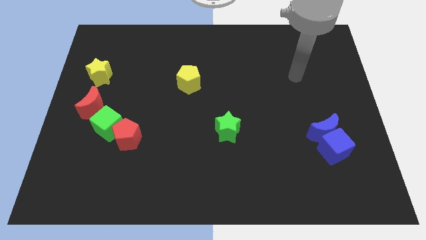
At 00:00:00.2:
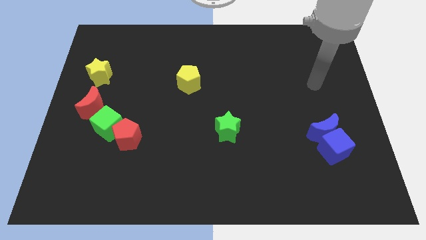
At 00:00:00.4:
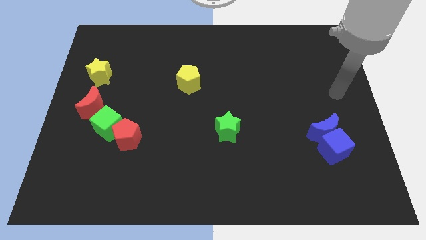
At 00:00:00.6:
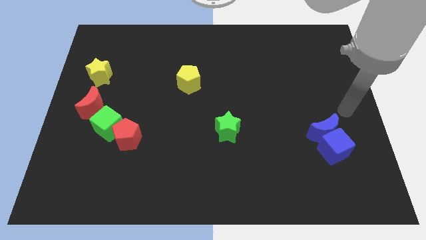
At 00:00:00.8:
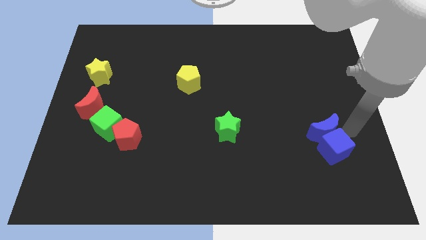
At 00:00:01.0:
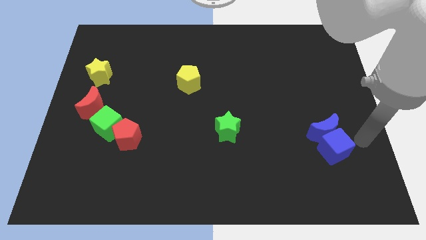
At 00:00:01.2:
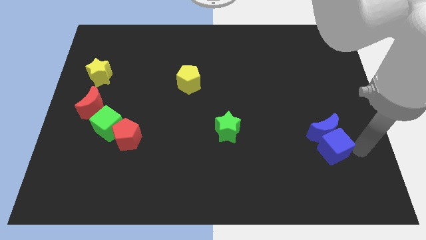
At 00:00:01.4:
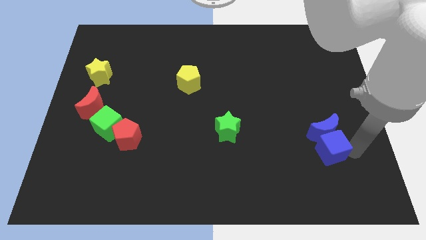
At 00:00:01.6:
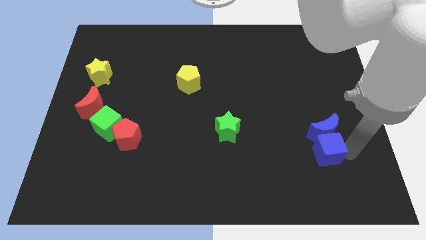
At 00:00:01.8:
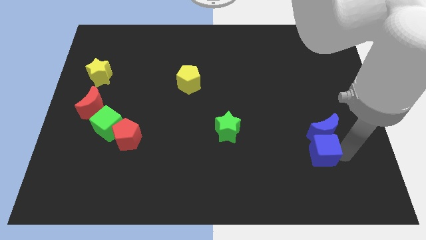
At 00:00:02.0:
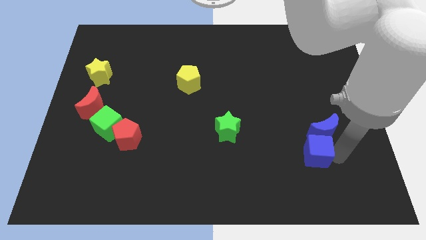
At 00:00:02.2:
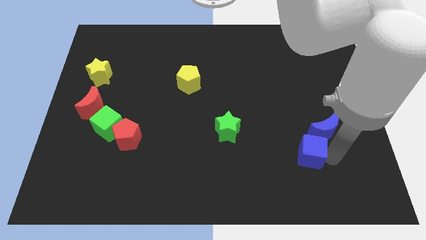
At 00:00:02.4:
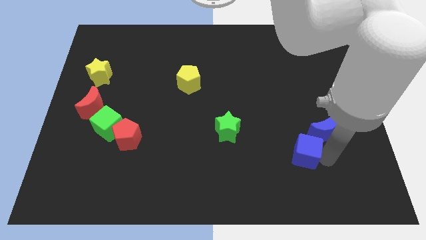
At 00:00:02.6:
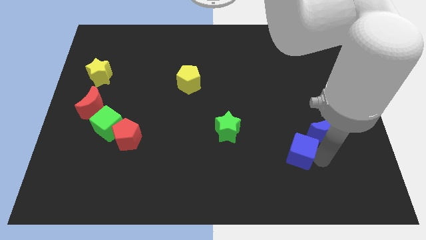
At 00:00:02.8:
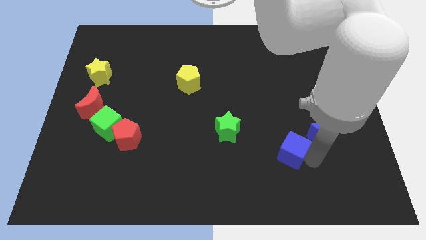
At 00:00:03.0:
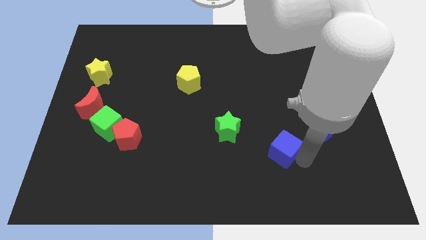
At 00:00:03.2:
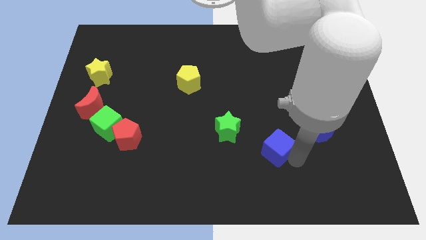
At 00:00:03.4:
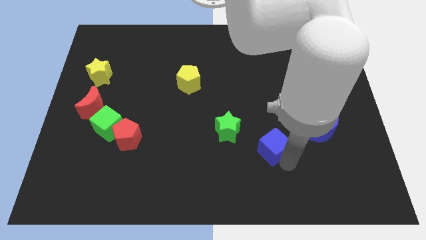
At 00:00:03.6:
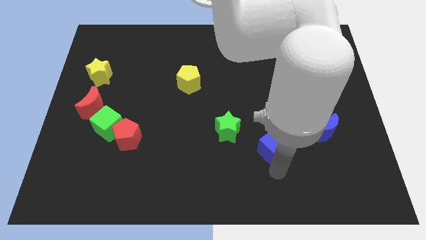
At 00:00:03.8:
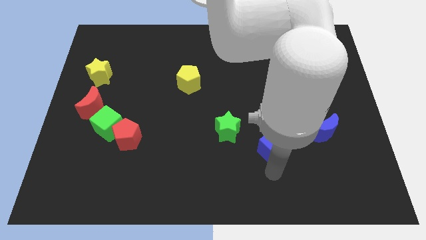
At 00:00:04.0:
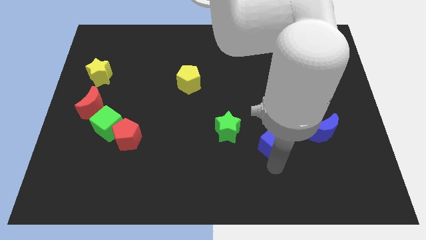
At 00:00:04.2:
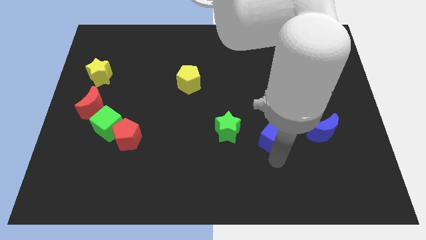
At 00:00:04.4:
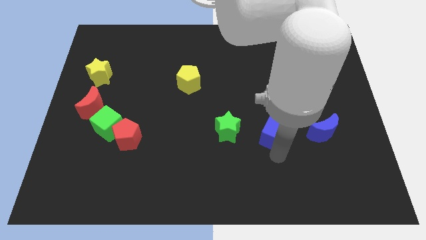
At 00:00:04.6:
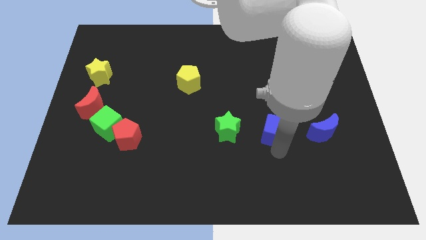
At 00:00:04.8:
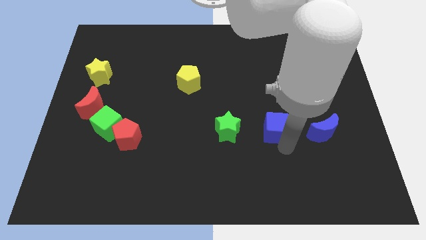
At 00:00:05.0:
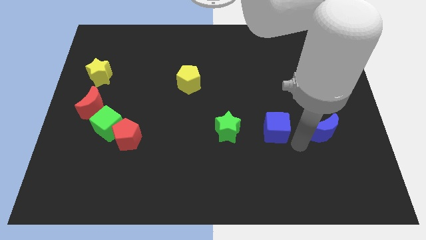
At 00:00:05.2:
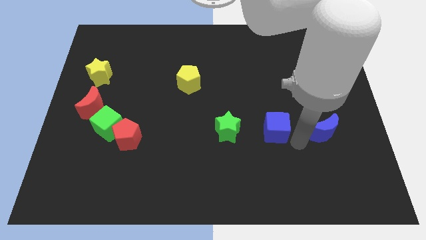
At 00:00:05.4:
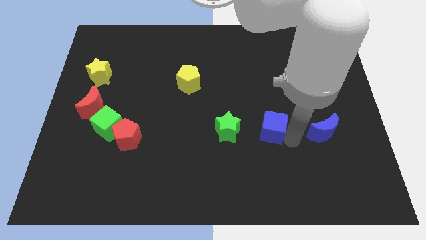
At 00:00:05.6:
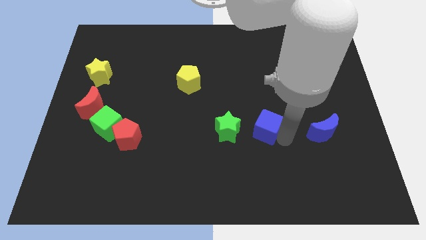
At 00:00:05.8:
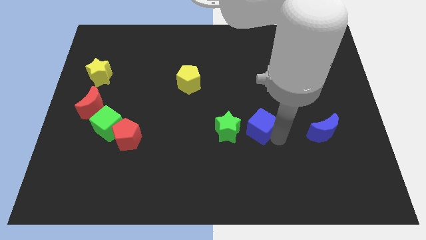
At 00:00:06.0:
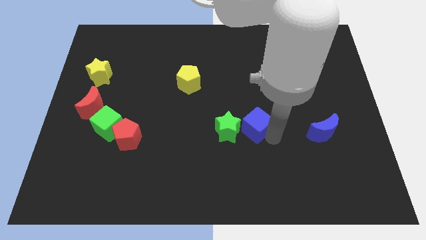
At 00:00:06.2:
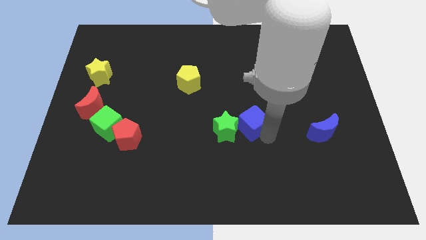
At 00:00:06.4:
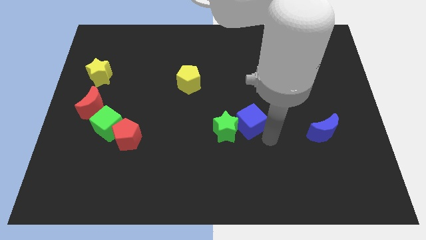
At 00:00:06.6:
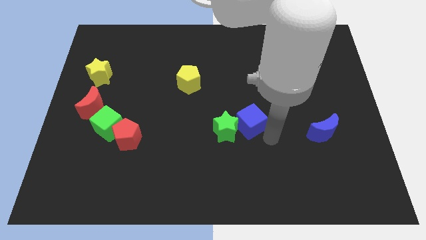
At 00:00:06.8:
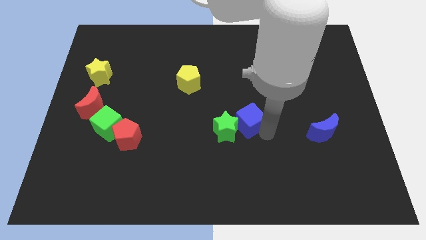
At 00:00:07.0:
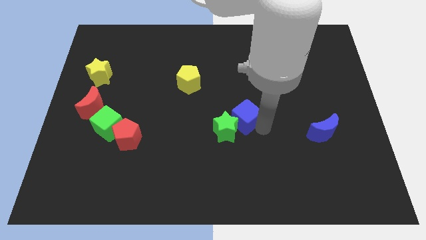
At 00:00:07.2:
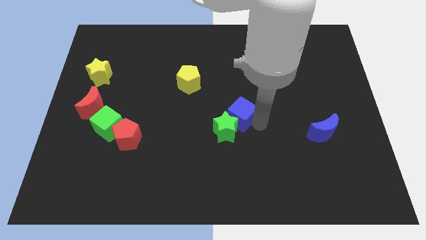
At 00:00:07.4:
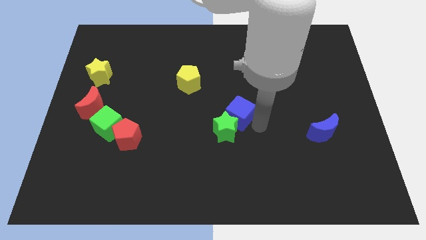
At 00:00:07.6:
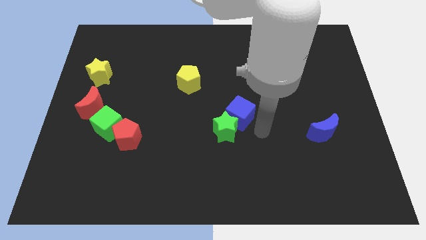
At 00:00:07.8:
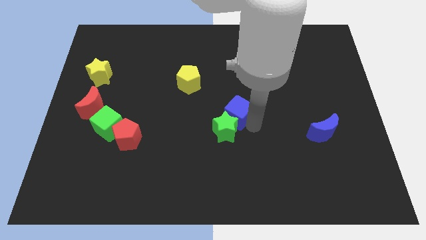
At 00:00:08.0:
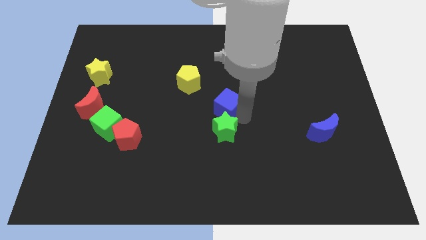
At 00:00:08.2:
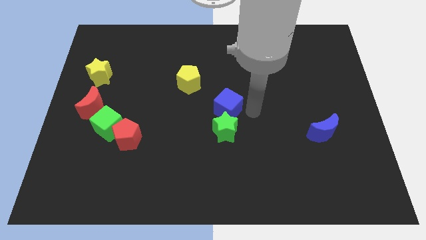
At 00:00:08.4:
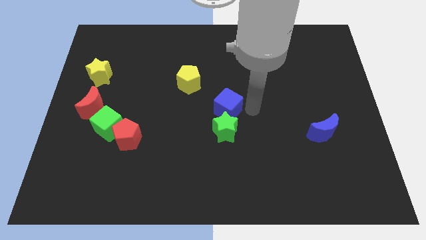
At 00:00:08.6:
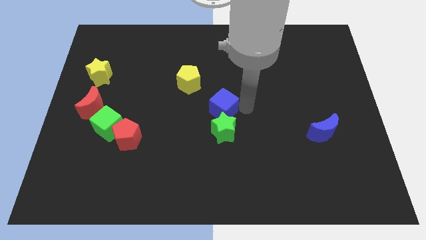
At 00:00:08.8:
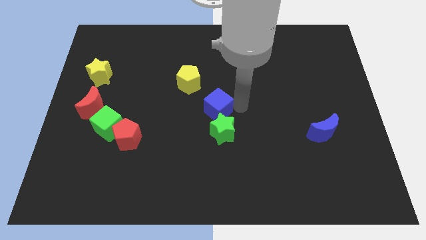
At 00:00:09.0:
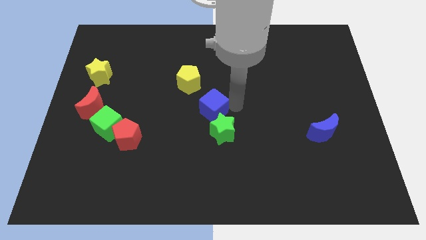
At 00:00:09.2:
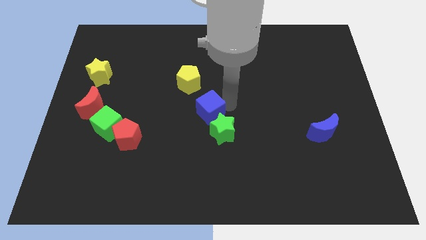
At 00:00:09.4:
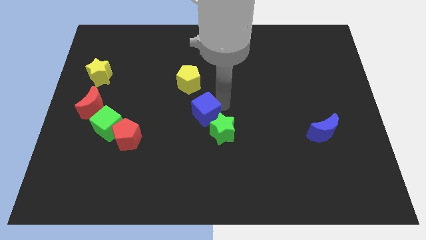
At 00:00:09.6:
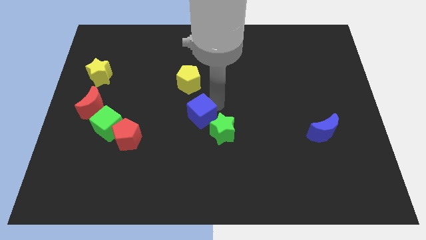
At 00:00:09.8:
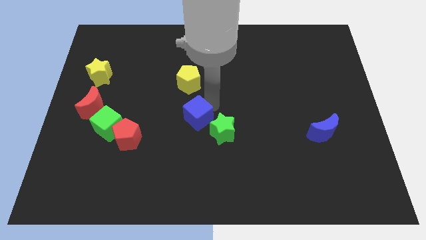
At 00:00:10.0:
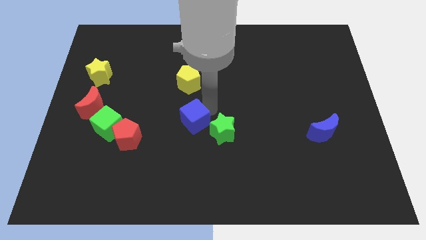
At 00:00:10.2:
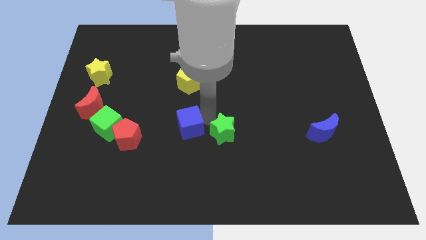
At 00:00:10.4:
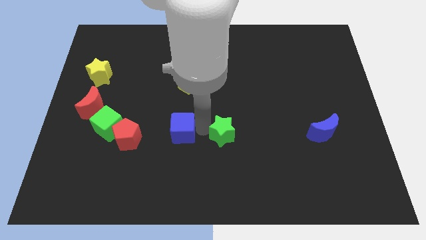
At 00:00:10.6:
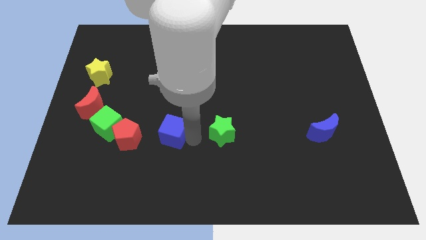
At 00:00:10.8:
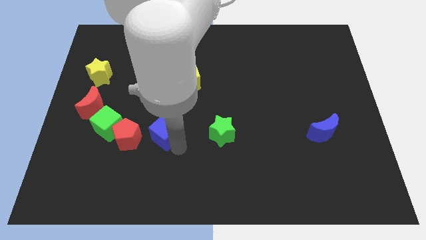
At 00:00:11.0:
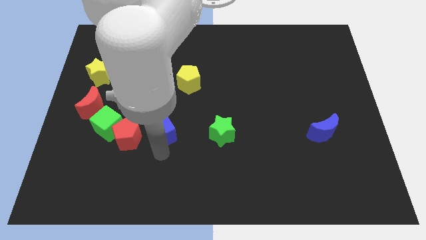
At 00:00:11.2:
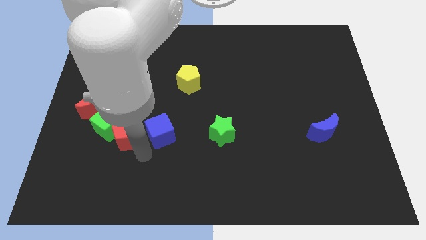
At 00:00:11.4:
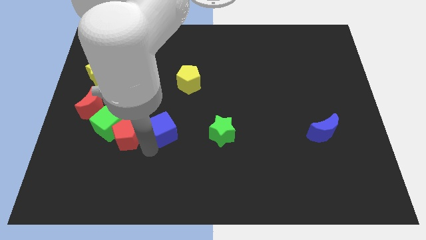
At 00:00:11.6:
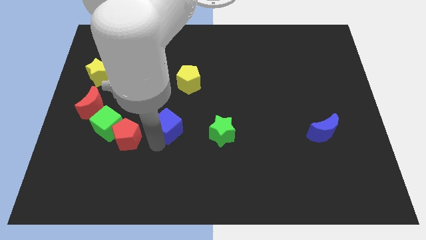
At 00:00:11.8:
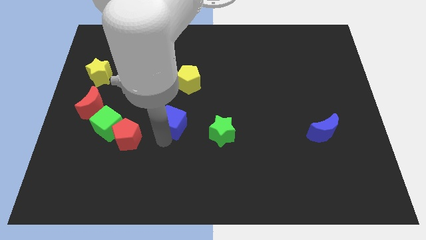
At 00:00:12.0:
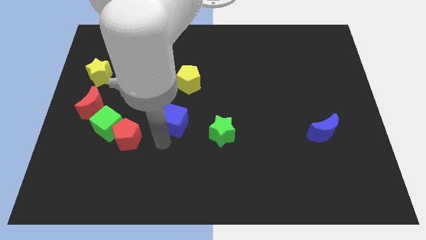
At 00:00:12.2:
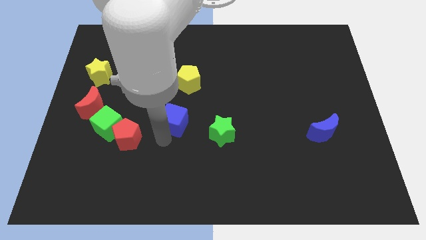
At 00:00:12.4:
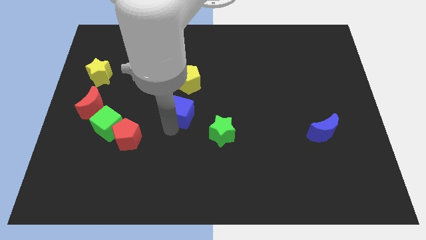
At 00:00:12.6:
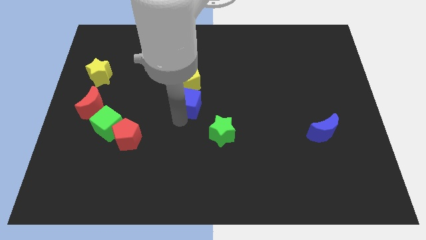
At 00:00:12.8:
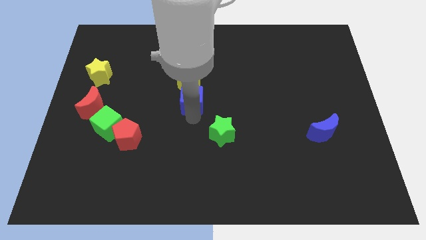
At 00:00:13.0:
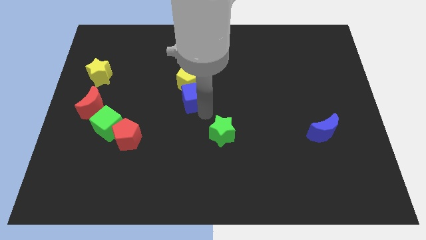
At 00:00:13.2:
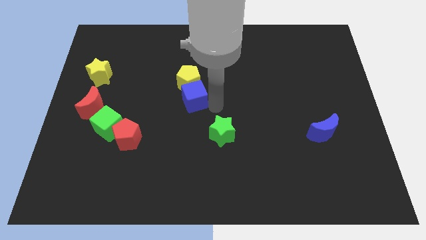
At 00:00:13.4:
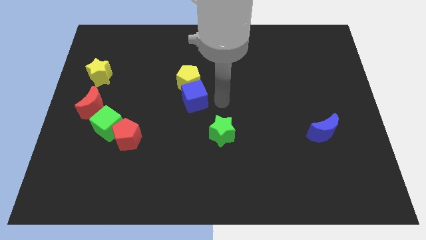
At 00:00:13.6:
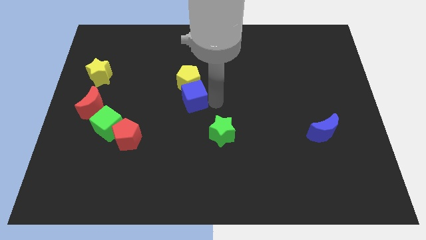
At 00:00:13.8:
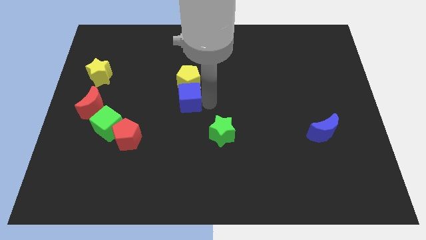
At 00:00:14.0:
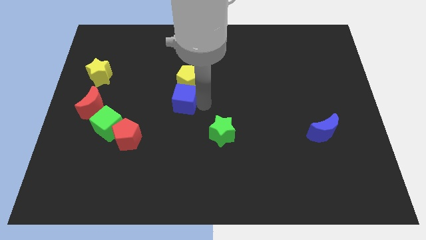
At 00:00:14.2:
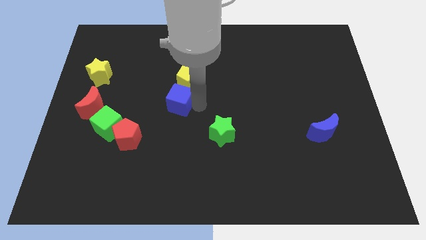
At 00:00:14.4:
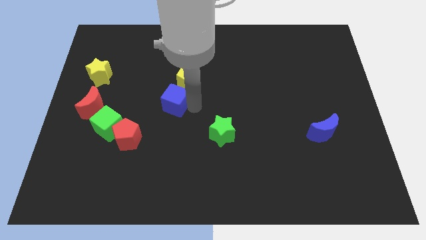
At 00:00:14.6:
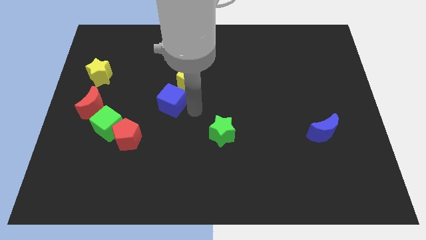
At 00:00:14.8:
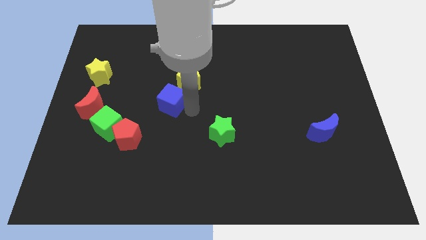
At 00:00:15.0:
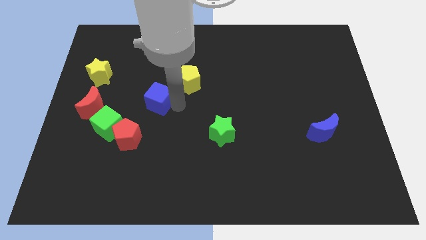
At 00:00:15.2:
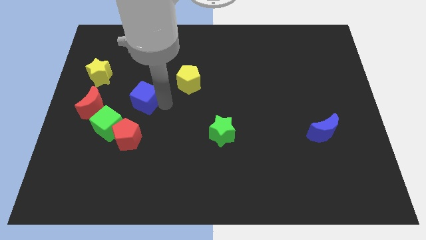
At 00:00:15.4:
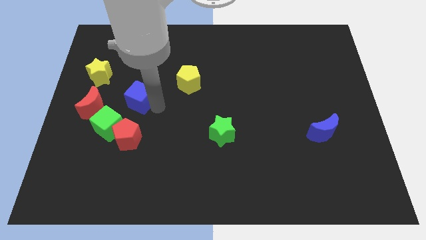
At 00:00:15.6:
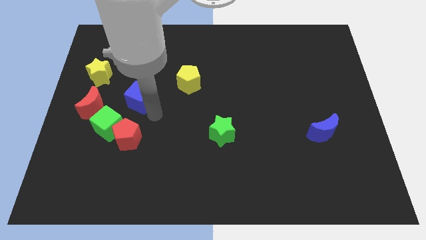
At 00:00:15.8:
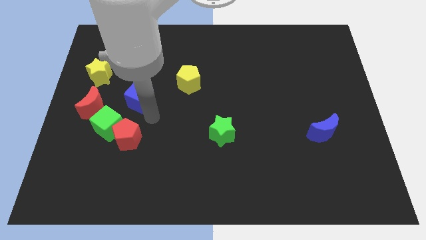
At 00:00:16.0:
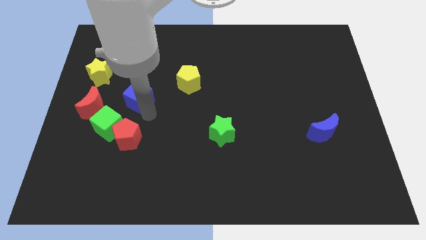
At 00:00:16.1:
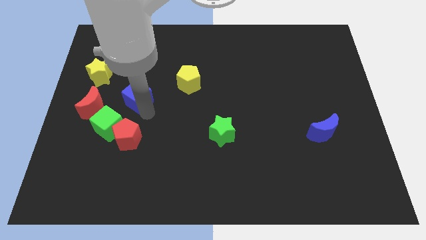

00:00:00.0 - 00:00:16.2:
put the blue cube diagonally down and to the right of the yellow star
